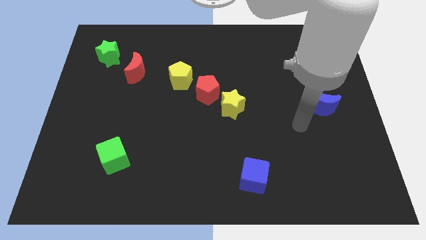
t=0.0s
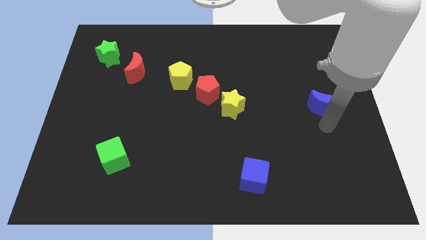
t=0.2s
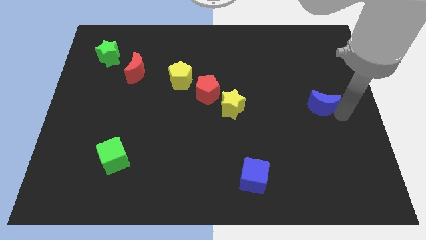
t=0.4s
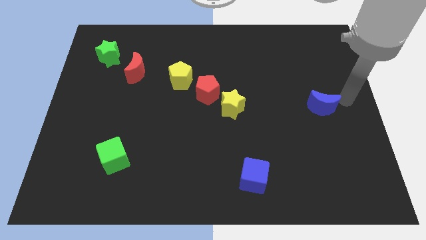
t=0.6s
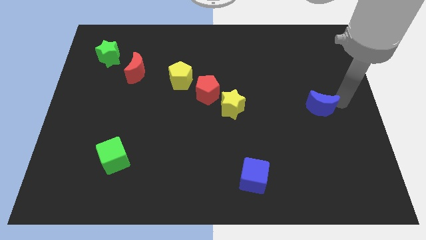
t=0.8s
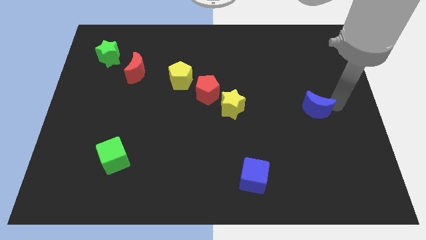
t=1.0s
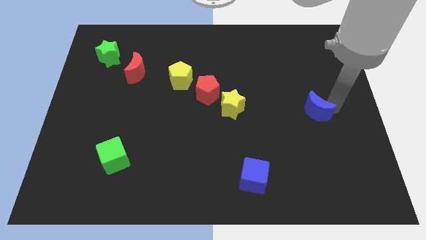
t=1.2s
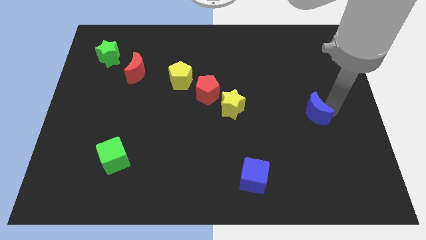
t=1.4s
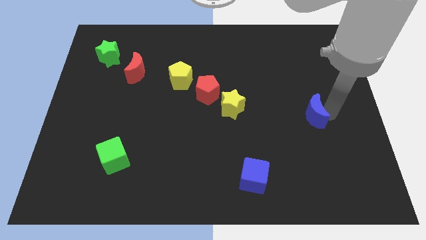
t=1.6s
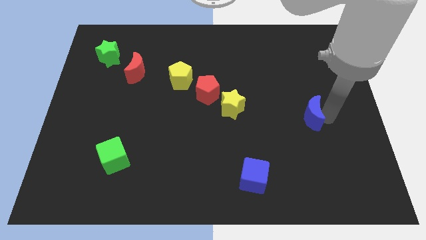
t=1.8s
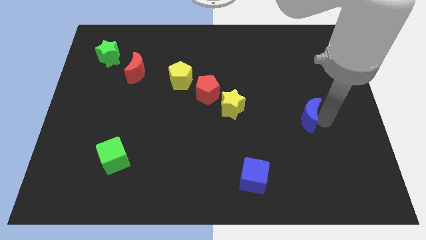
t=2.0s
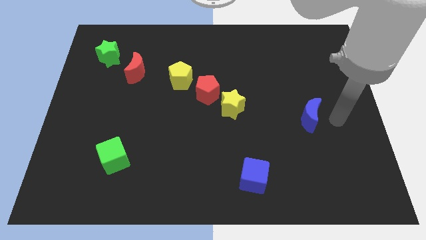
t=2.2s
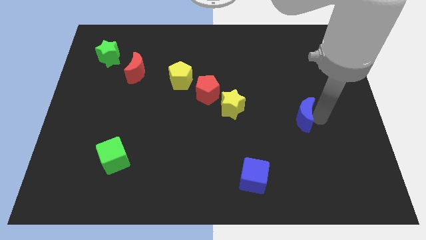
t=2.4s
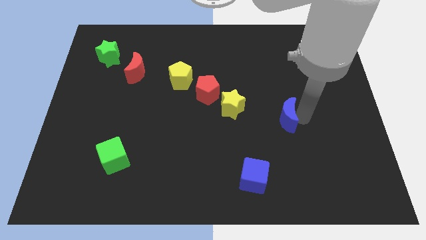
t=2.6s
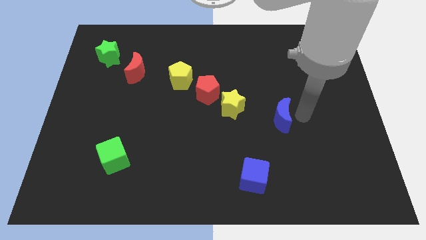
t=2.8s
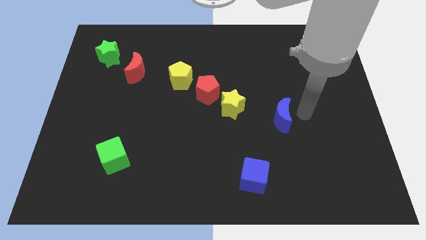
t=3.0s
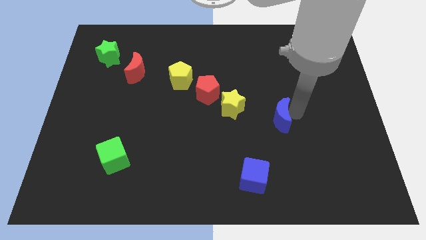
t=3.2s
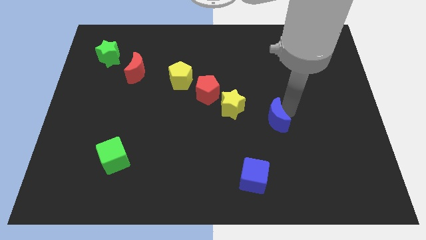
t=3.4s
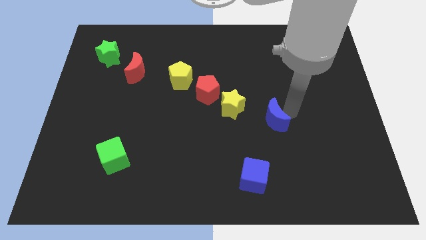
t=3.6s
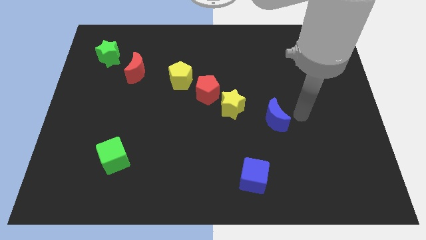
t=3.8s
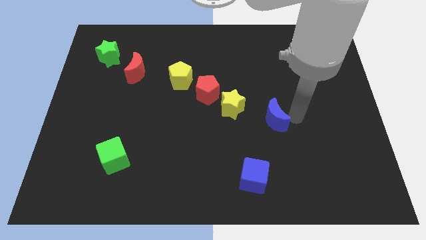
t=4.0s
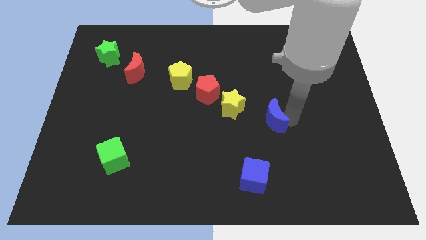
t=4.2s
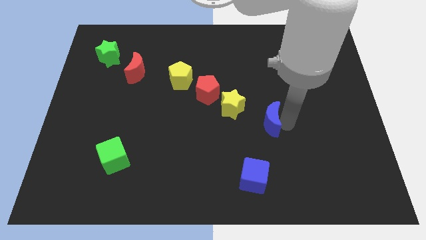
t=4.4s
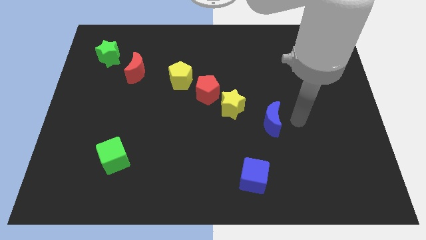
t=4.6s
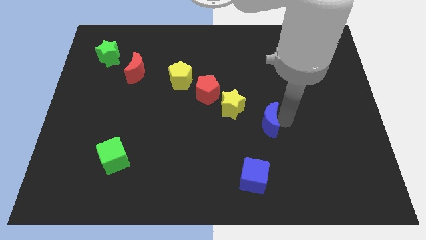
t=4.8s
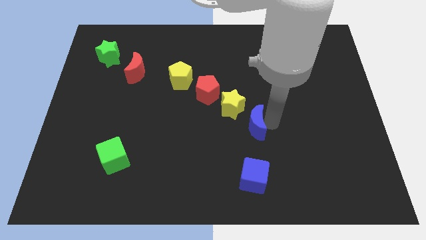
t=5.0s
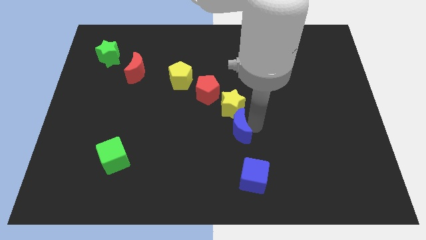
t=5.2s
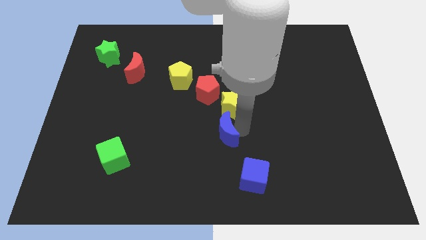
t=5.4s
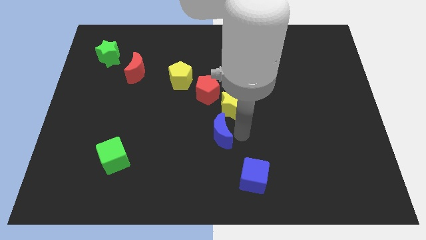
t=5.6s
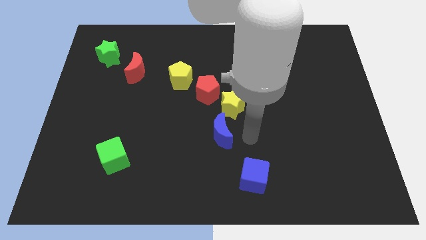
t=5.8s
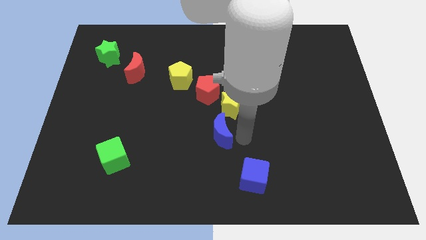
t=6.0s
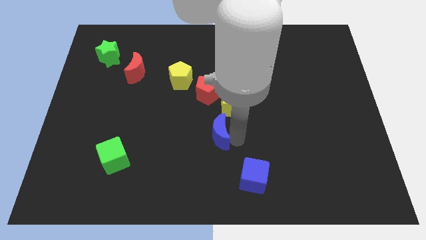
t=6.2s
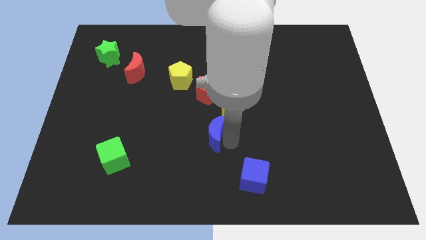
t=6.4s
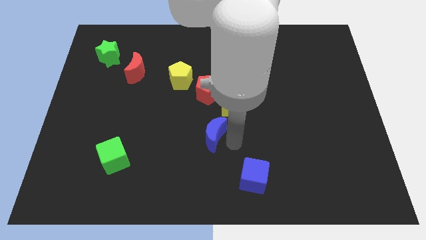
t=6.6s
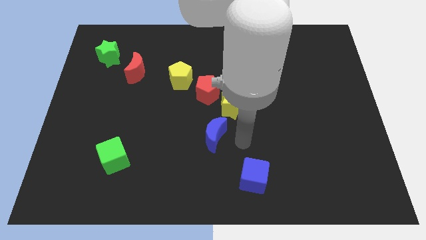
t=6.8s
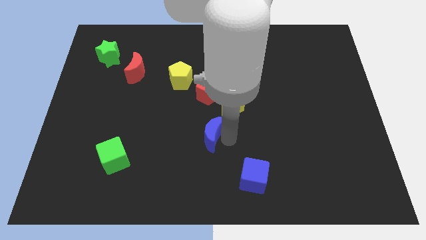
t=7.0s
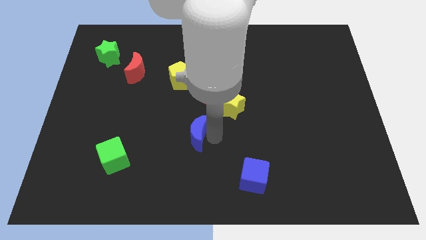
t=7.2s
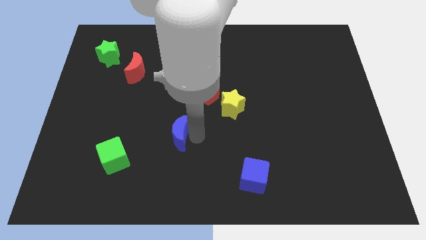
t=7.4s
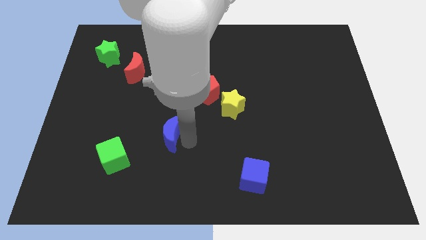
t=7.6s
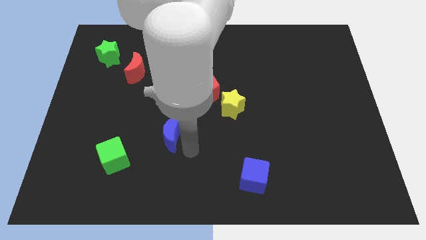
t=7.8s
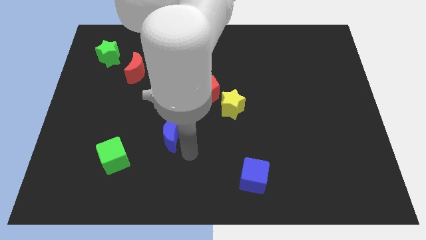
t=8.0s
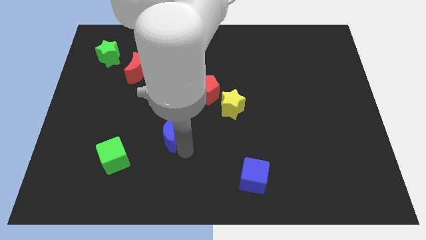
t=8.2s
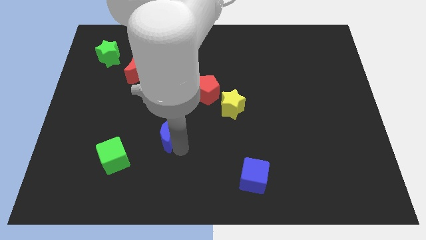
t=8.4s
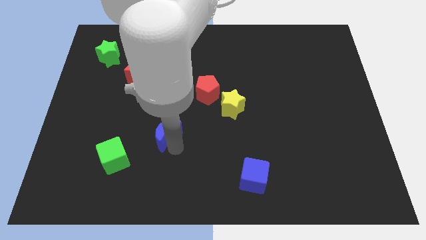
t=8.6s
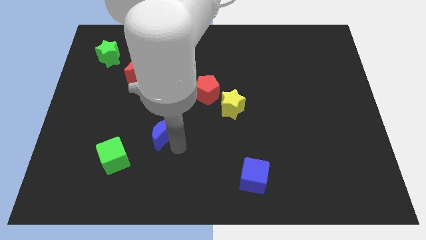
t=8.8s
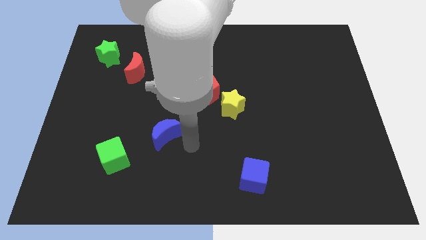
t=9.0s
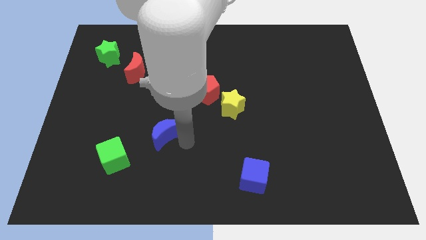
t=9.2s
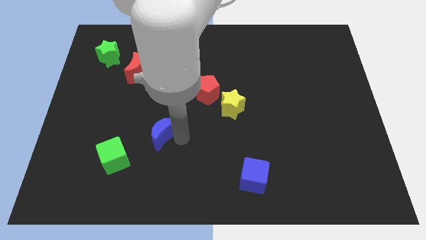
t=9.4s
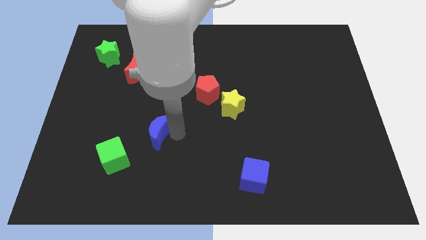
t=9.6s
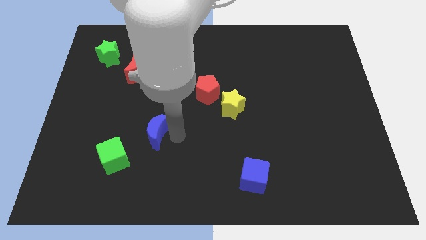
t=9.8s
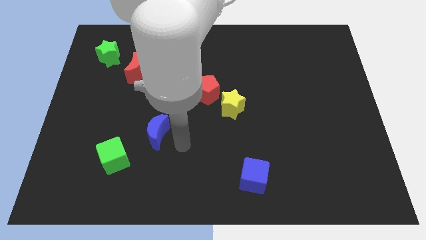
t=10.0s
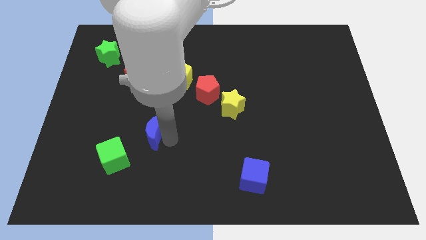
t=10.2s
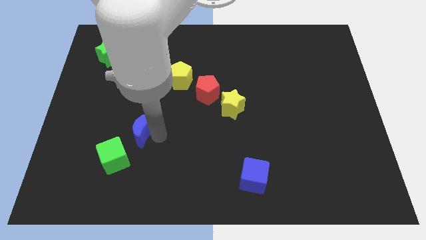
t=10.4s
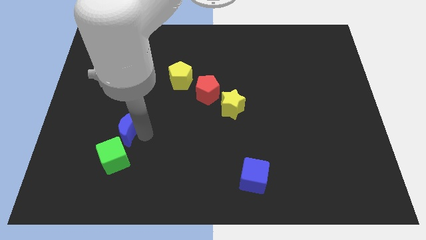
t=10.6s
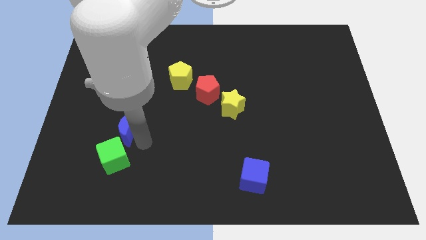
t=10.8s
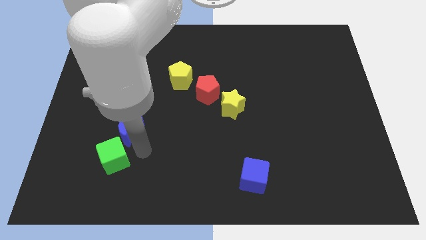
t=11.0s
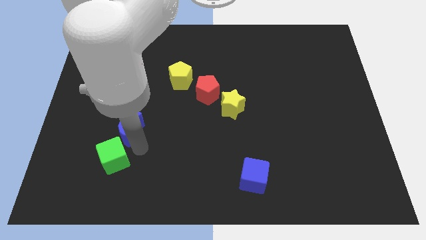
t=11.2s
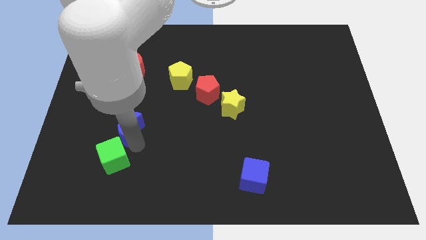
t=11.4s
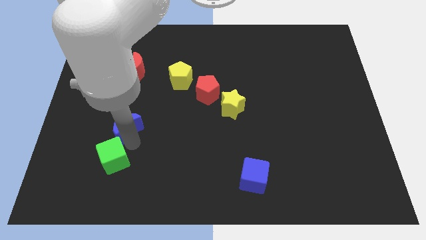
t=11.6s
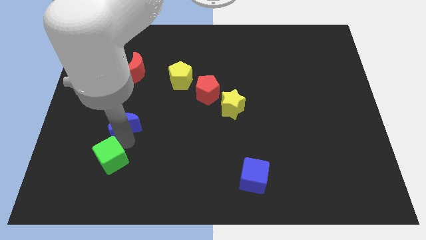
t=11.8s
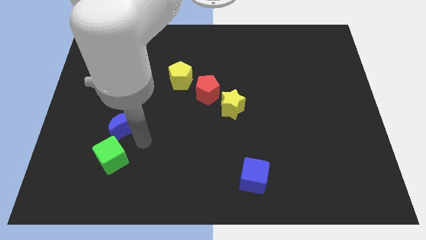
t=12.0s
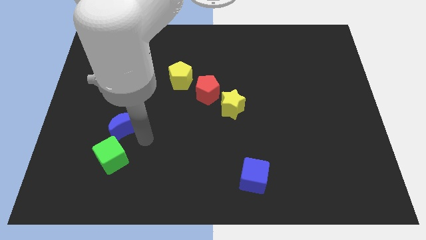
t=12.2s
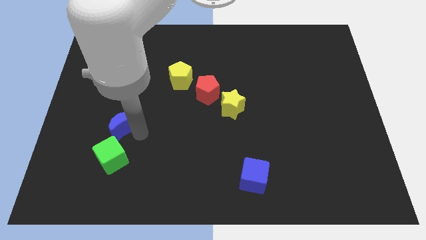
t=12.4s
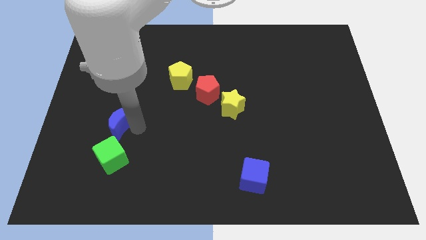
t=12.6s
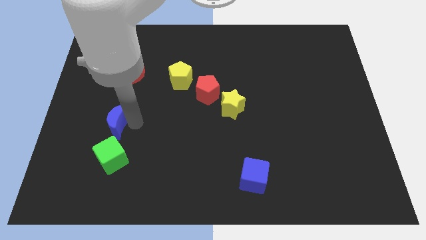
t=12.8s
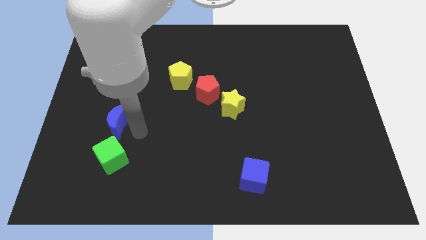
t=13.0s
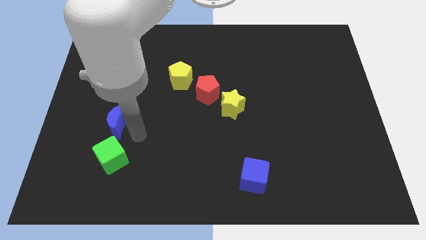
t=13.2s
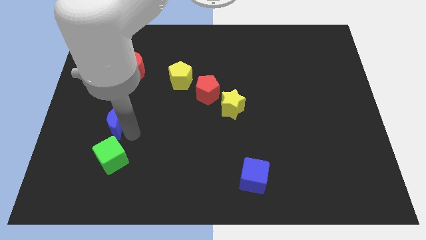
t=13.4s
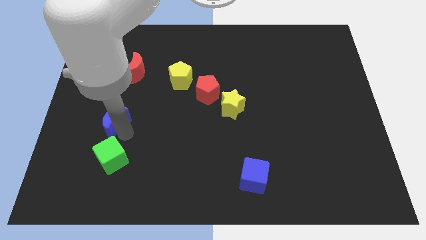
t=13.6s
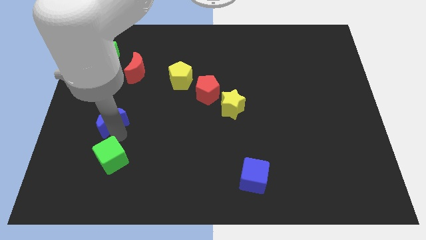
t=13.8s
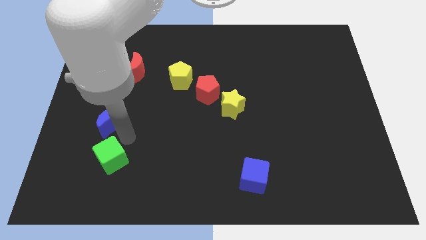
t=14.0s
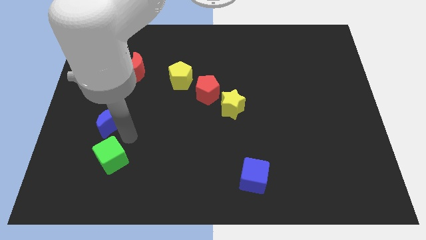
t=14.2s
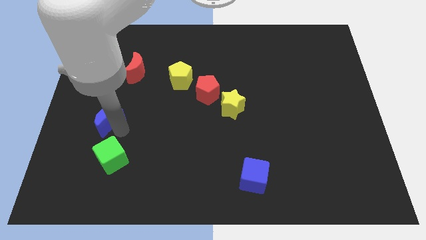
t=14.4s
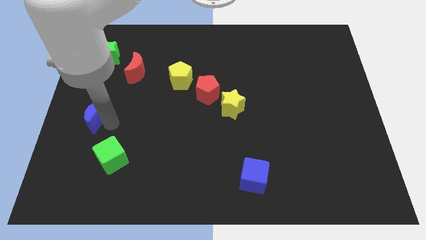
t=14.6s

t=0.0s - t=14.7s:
slide the blue moon to the left side of the board
